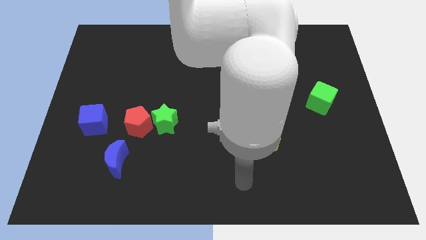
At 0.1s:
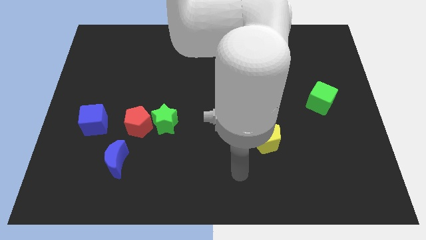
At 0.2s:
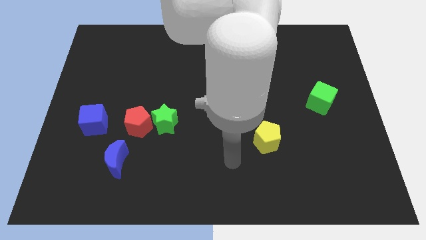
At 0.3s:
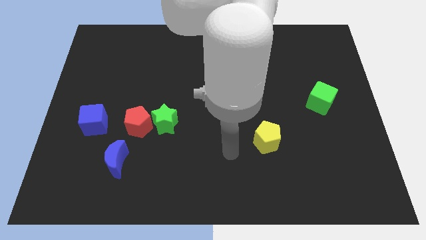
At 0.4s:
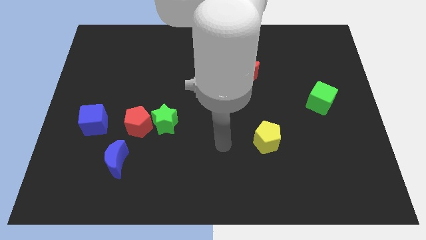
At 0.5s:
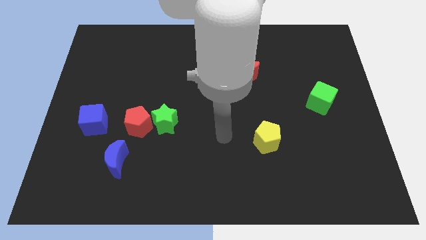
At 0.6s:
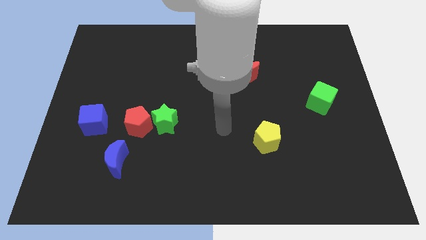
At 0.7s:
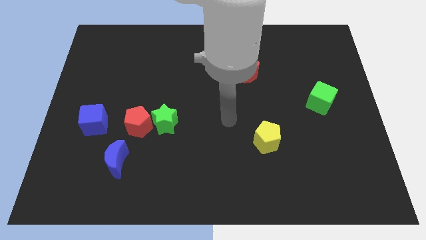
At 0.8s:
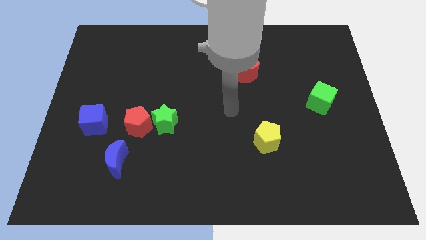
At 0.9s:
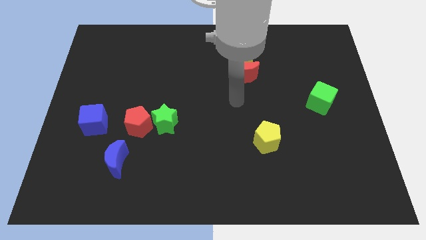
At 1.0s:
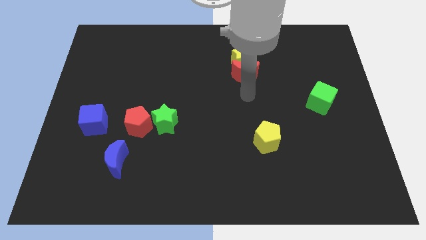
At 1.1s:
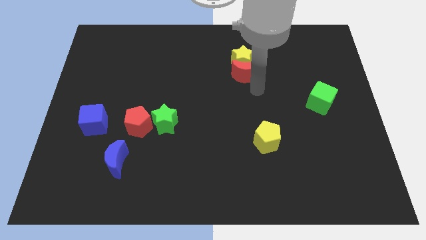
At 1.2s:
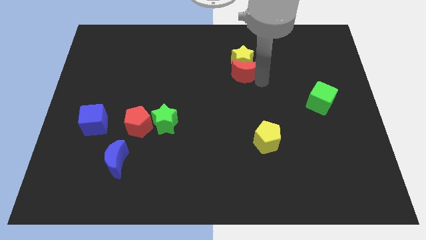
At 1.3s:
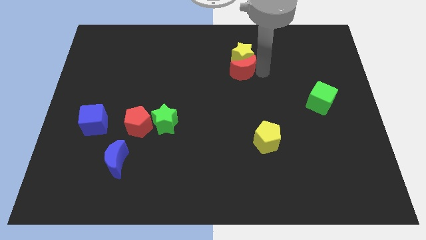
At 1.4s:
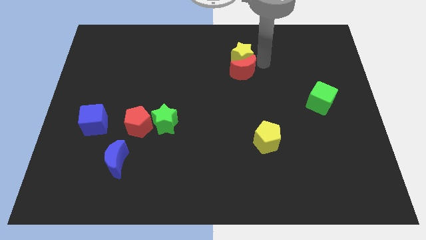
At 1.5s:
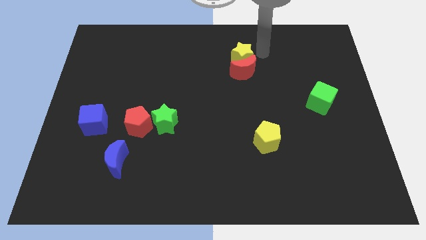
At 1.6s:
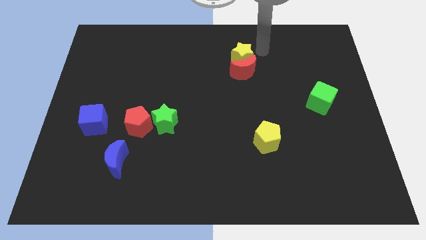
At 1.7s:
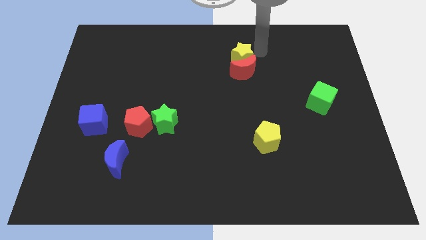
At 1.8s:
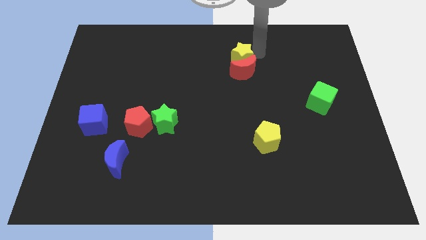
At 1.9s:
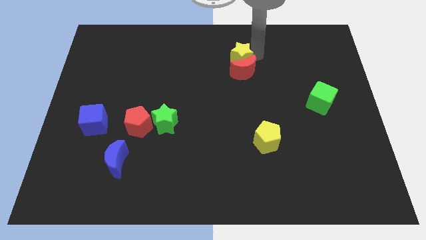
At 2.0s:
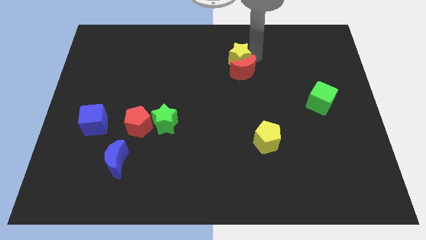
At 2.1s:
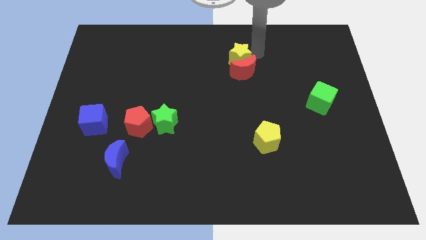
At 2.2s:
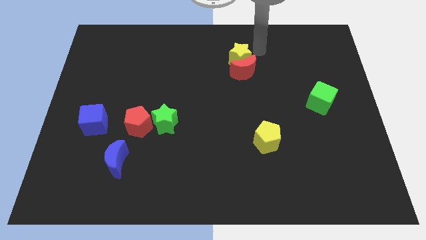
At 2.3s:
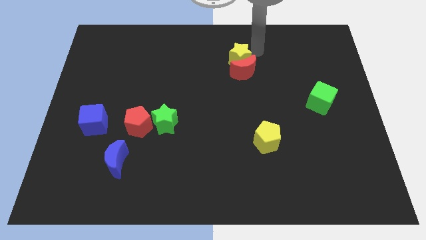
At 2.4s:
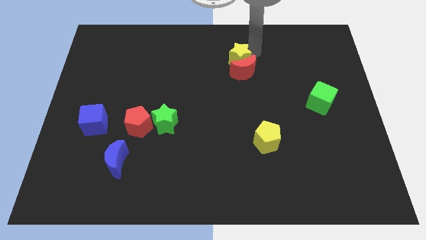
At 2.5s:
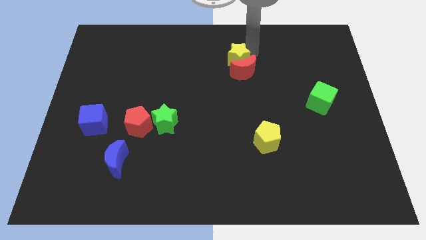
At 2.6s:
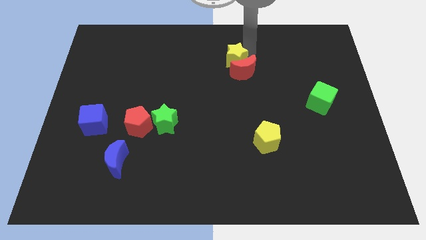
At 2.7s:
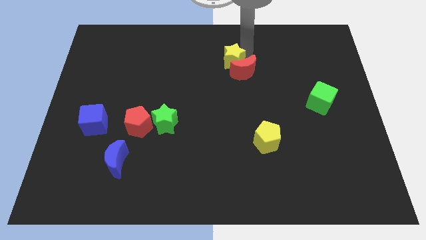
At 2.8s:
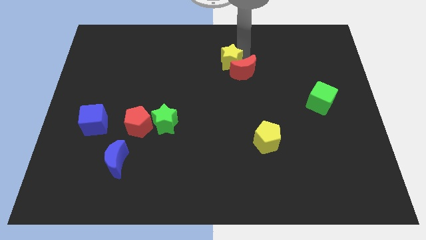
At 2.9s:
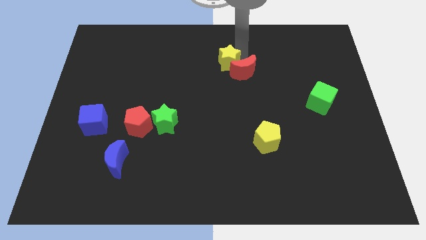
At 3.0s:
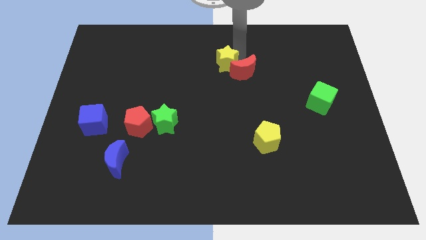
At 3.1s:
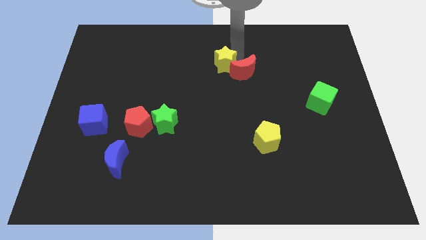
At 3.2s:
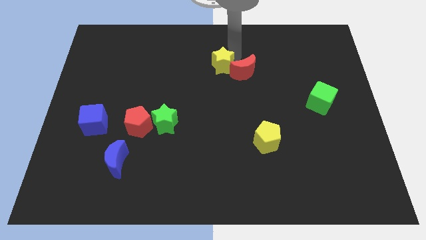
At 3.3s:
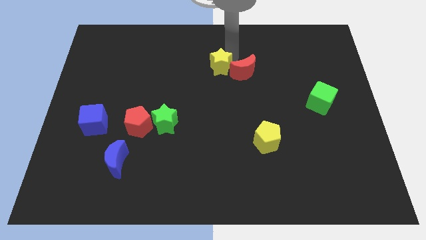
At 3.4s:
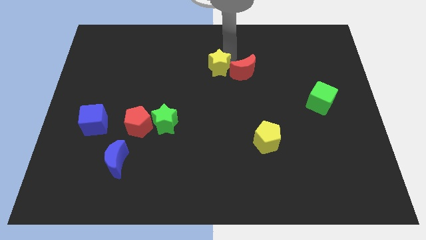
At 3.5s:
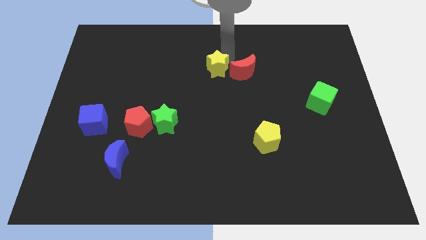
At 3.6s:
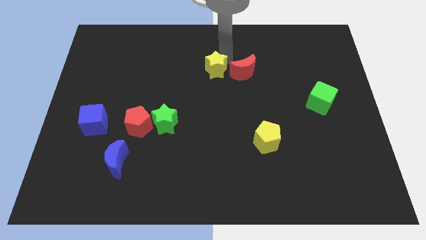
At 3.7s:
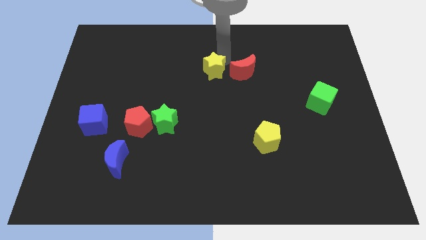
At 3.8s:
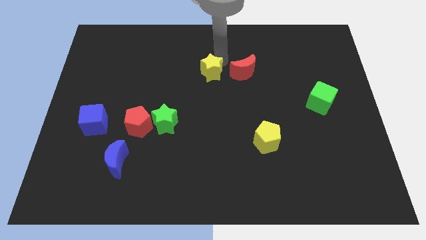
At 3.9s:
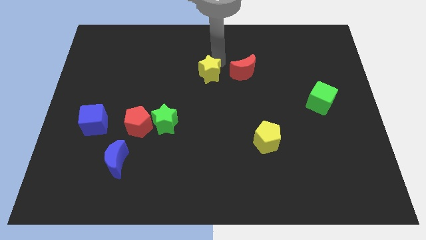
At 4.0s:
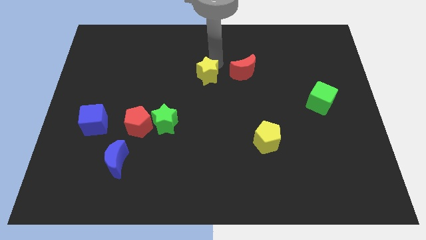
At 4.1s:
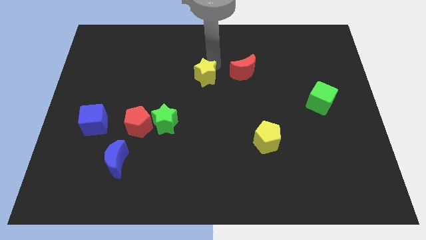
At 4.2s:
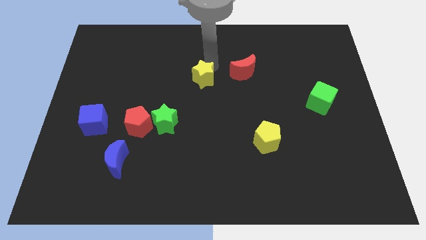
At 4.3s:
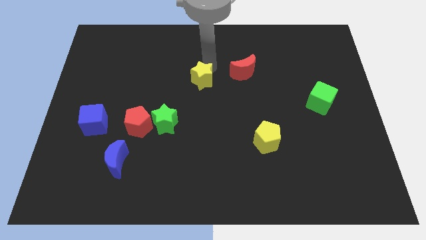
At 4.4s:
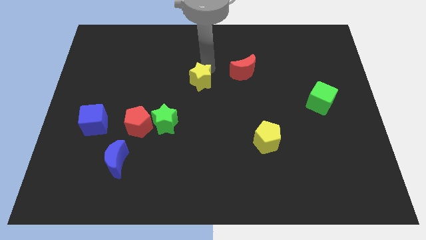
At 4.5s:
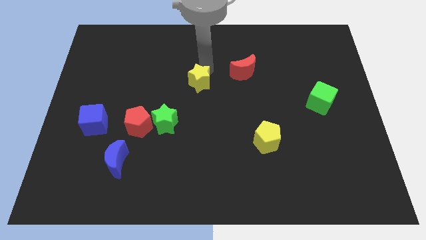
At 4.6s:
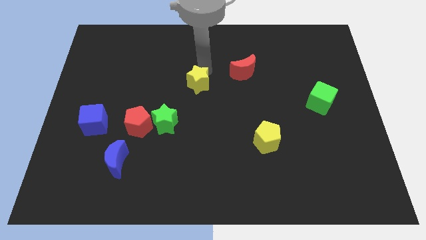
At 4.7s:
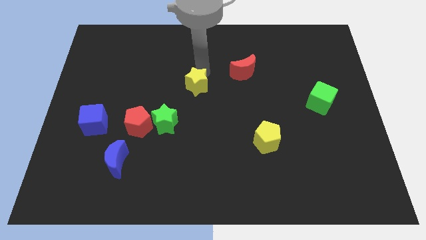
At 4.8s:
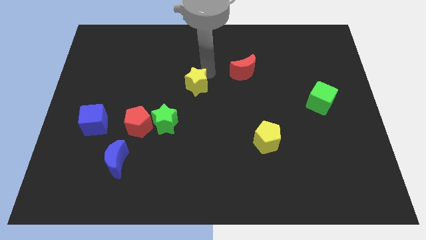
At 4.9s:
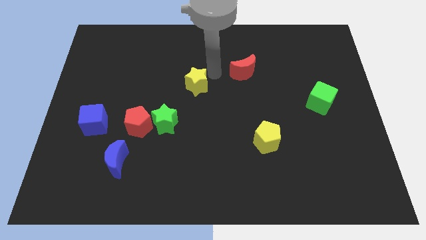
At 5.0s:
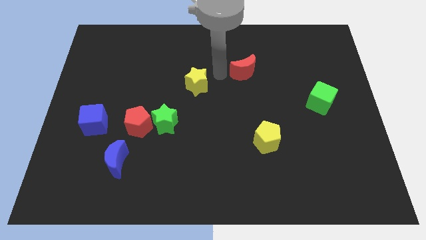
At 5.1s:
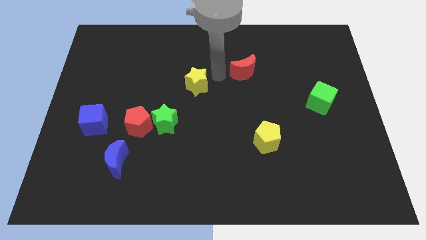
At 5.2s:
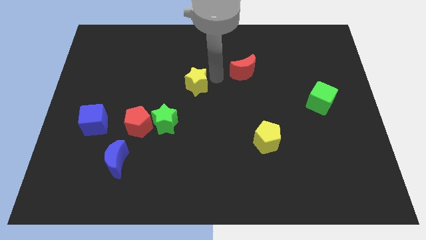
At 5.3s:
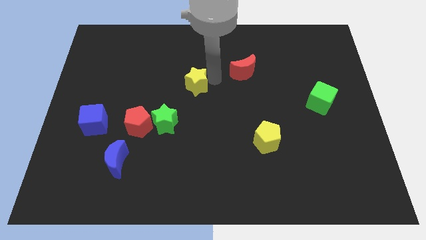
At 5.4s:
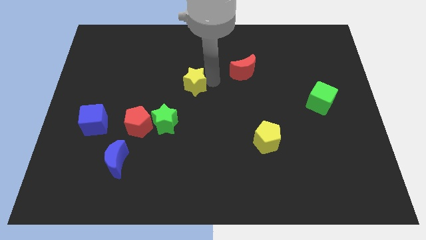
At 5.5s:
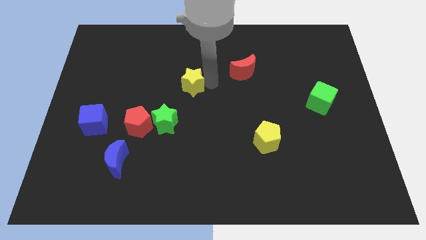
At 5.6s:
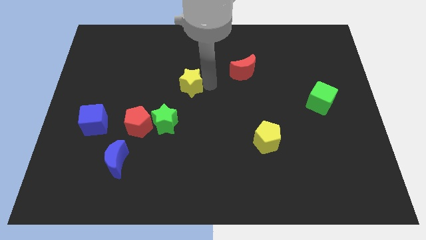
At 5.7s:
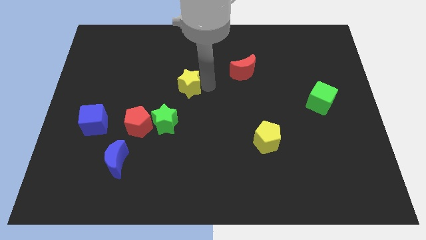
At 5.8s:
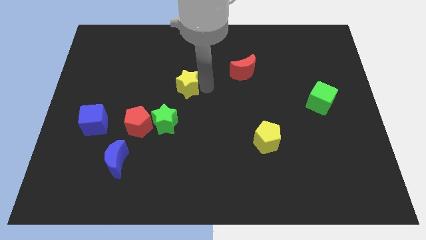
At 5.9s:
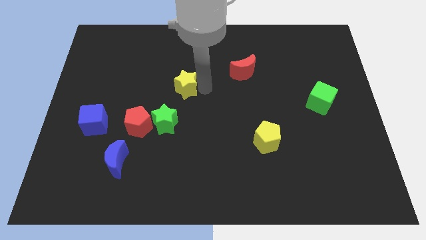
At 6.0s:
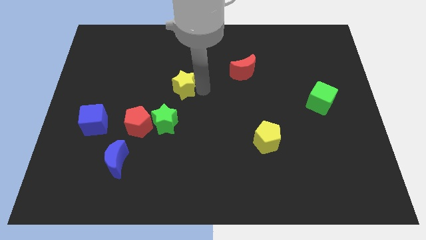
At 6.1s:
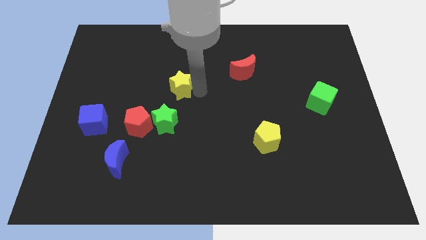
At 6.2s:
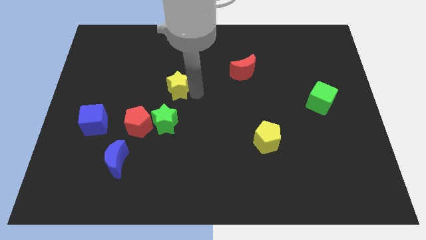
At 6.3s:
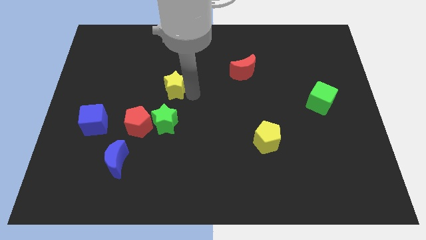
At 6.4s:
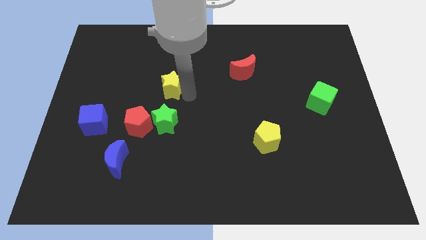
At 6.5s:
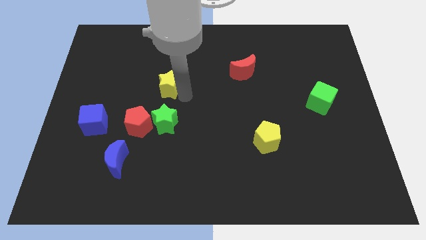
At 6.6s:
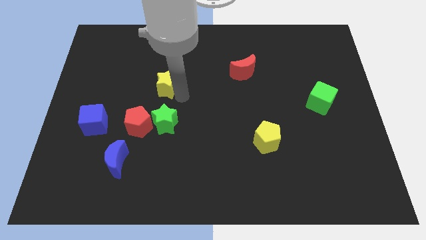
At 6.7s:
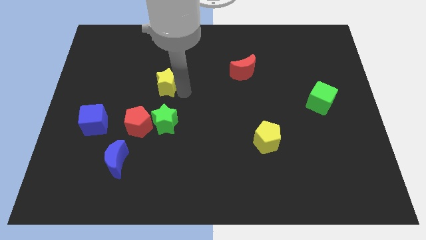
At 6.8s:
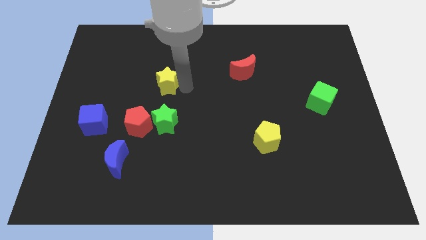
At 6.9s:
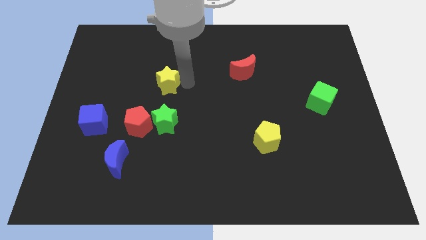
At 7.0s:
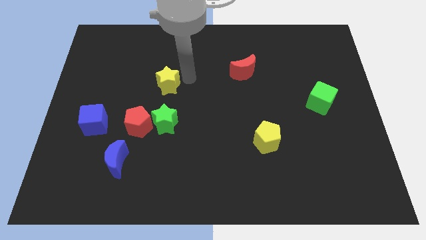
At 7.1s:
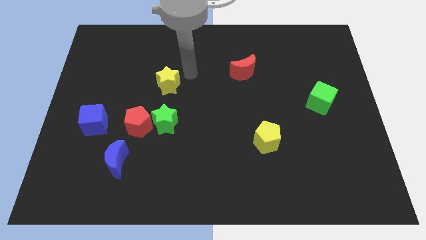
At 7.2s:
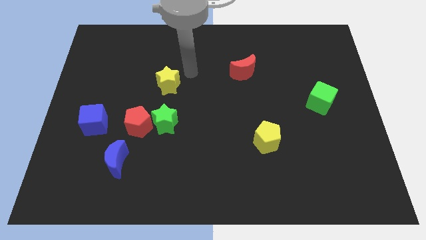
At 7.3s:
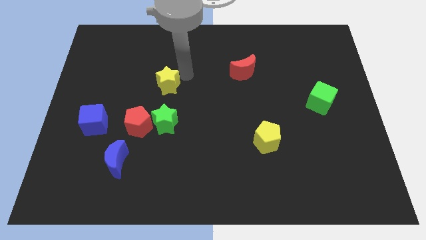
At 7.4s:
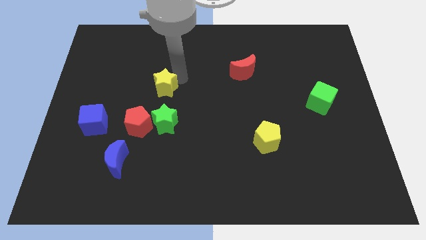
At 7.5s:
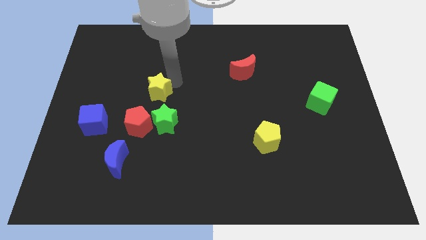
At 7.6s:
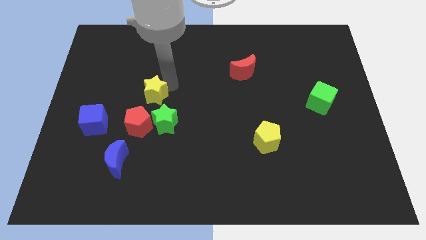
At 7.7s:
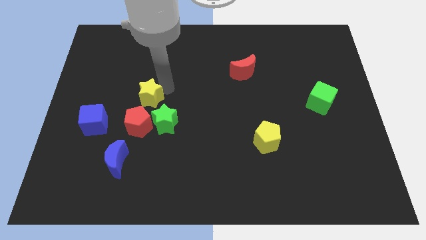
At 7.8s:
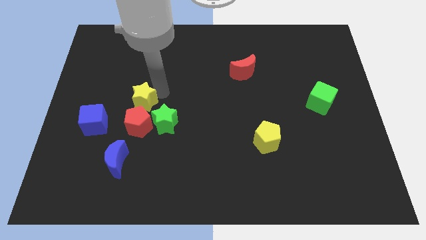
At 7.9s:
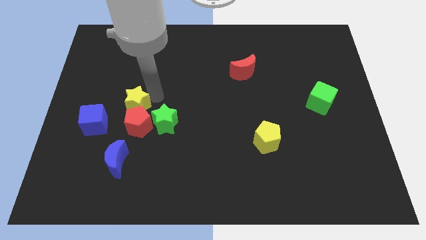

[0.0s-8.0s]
move the yellow star to the top left of the red pentagon
